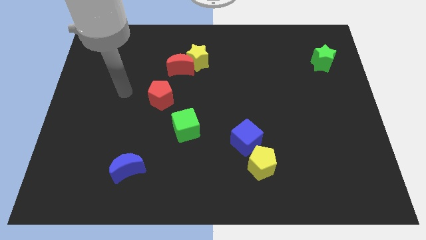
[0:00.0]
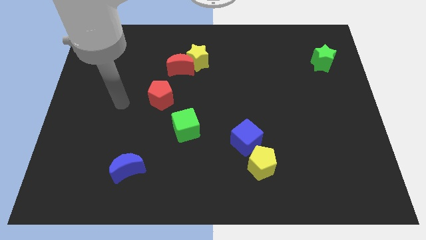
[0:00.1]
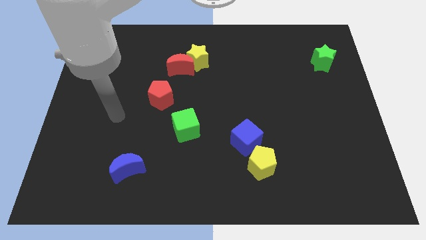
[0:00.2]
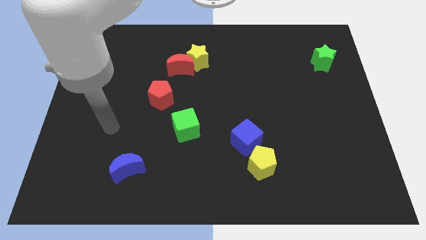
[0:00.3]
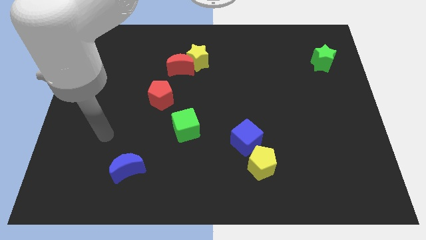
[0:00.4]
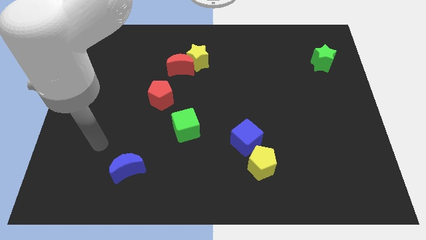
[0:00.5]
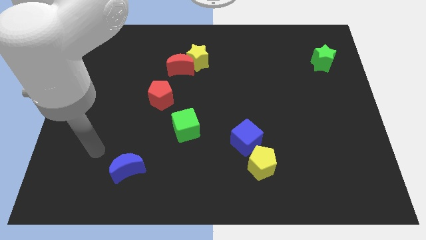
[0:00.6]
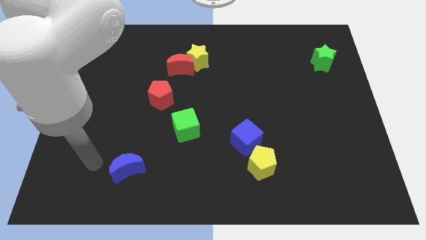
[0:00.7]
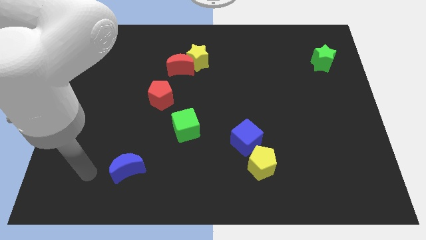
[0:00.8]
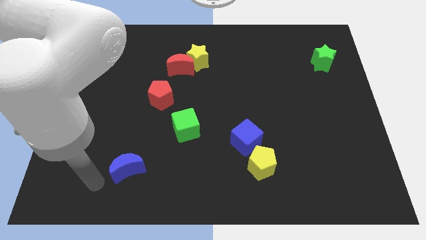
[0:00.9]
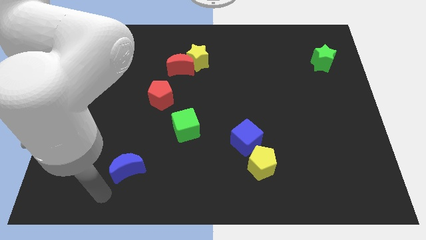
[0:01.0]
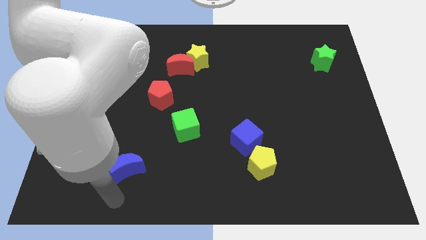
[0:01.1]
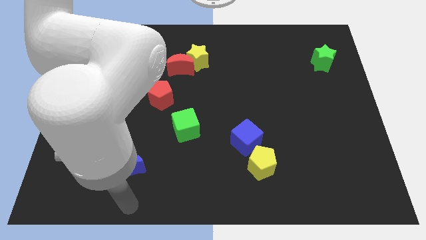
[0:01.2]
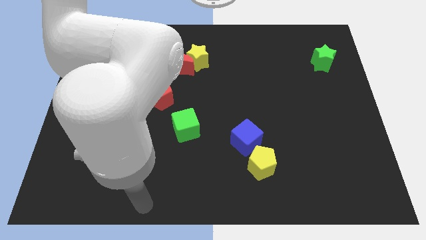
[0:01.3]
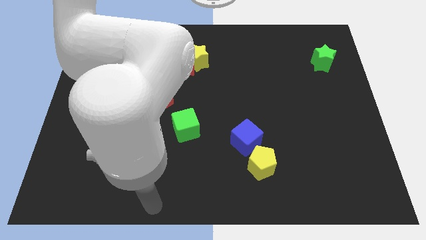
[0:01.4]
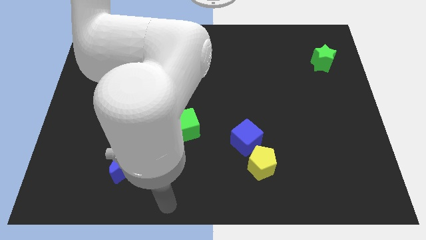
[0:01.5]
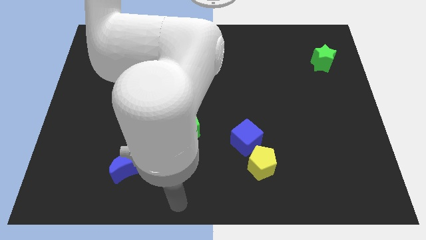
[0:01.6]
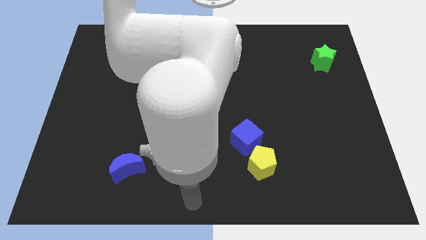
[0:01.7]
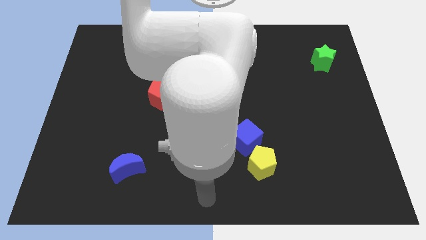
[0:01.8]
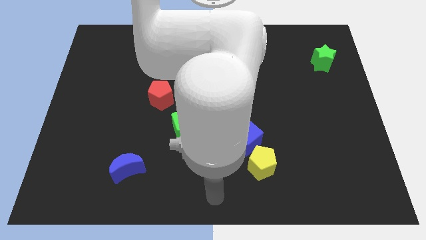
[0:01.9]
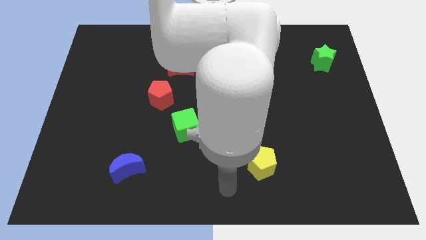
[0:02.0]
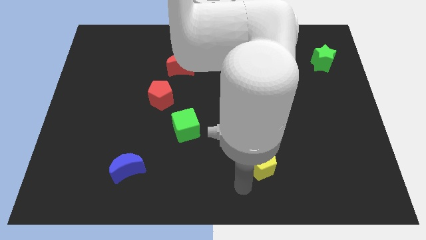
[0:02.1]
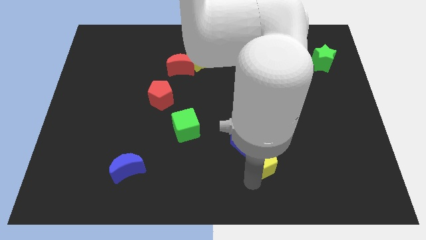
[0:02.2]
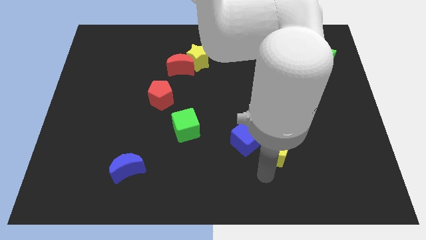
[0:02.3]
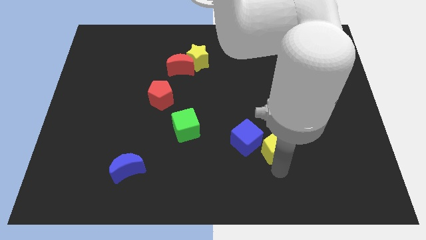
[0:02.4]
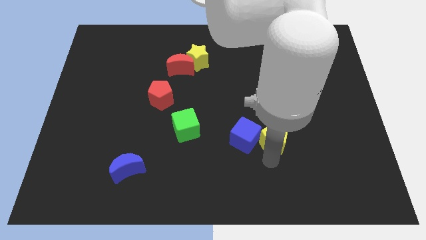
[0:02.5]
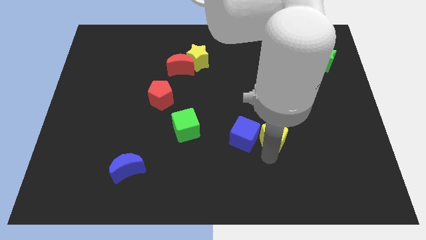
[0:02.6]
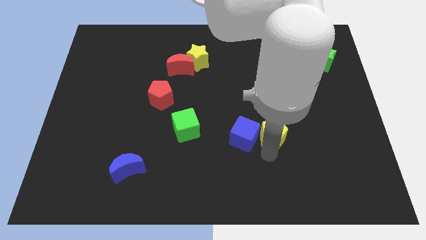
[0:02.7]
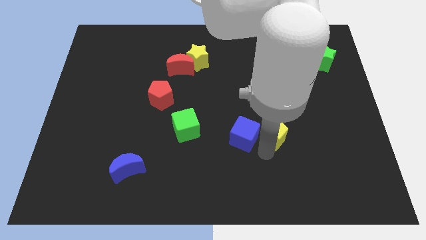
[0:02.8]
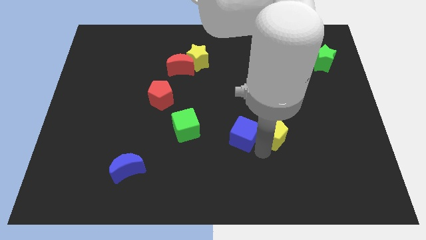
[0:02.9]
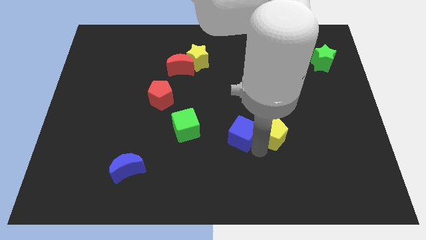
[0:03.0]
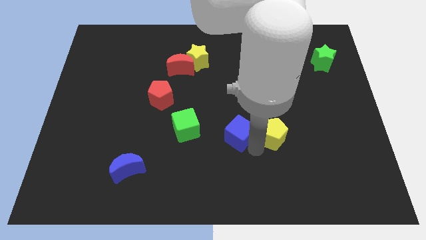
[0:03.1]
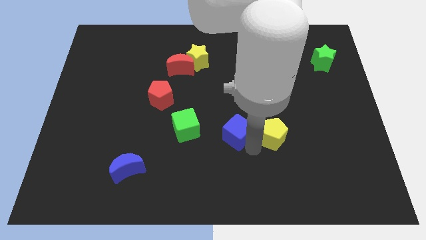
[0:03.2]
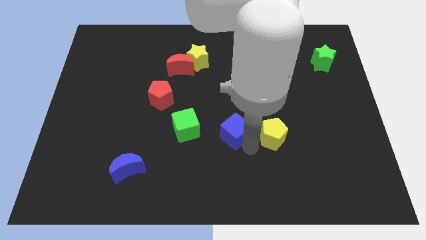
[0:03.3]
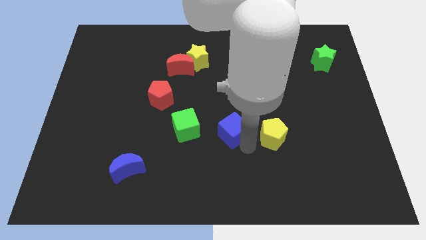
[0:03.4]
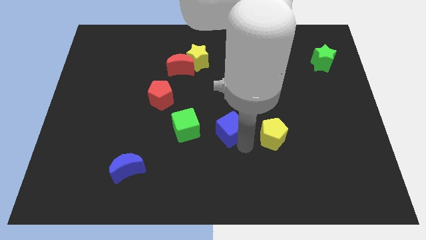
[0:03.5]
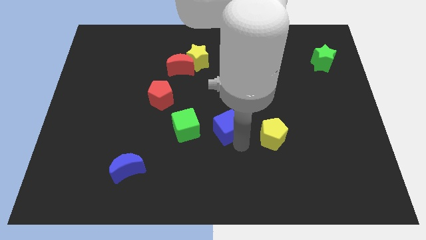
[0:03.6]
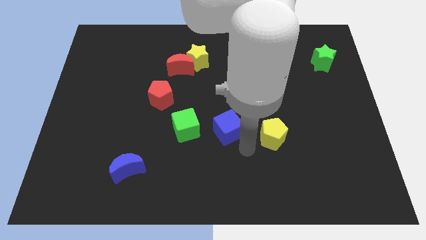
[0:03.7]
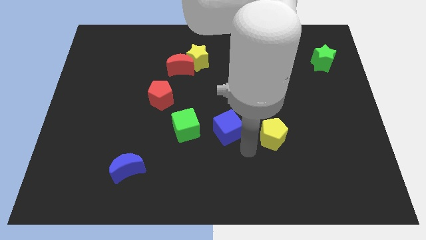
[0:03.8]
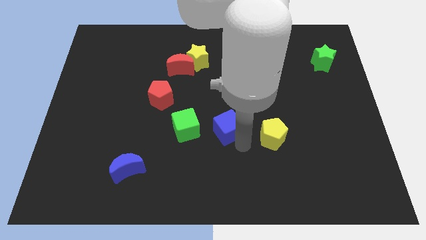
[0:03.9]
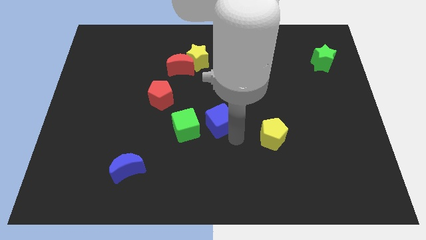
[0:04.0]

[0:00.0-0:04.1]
move the blue cube up and then to the left a little

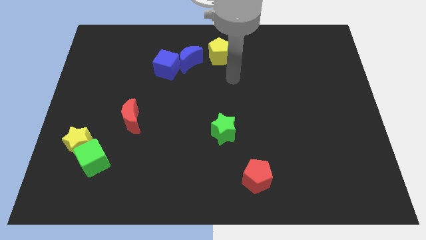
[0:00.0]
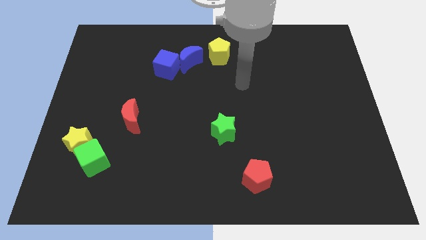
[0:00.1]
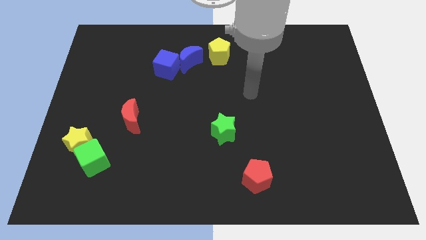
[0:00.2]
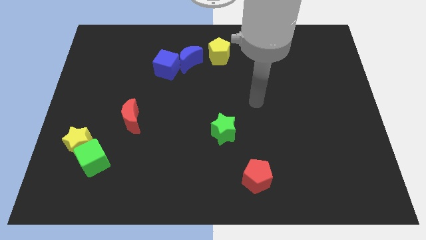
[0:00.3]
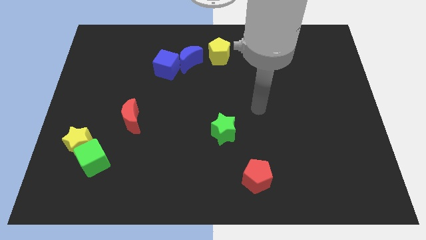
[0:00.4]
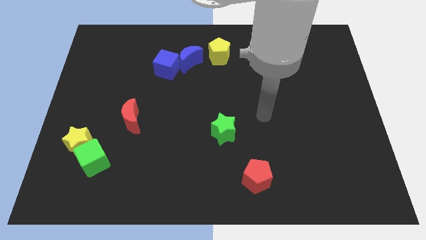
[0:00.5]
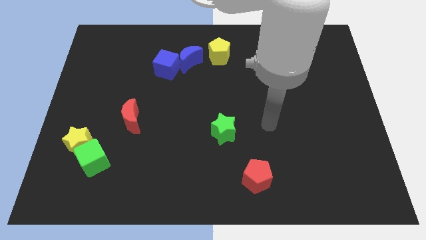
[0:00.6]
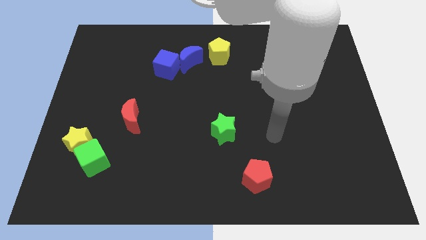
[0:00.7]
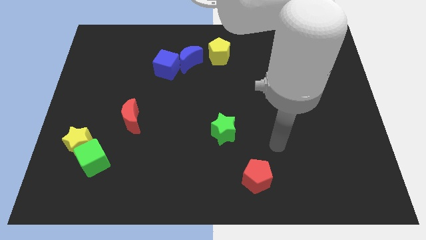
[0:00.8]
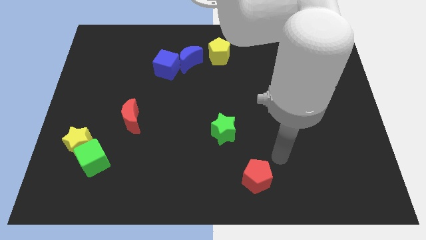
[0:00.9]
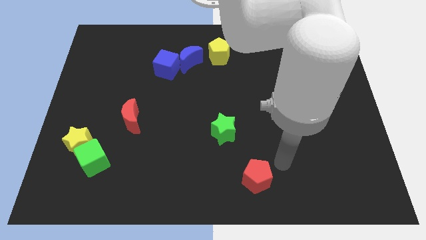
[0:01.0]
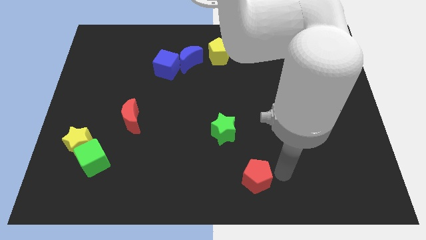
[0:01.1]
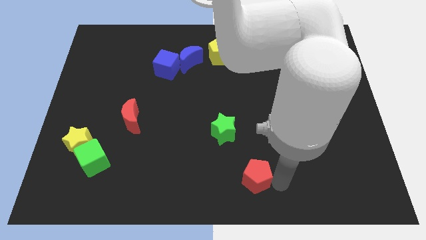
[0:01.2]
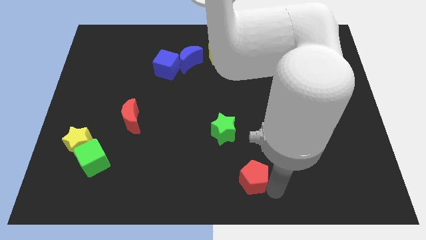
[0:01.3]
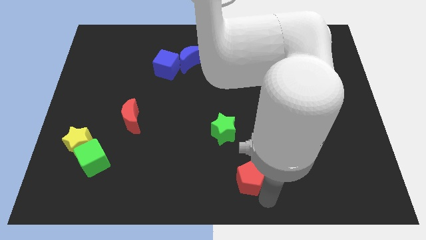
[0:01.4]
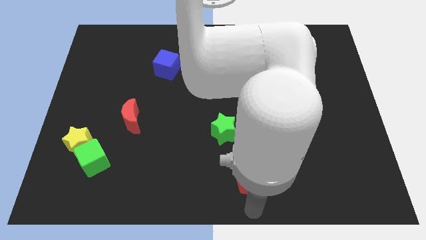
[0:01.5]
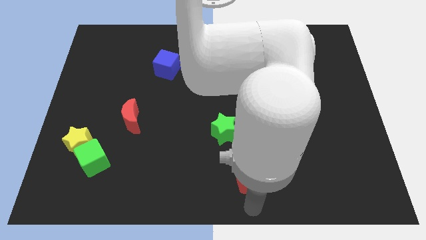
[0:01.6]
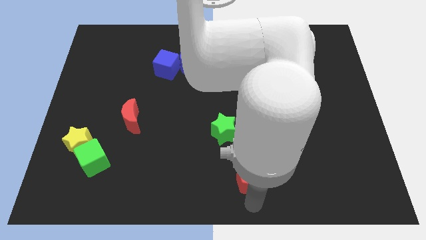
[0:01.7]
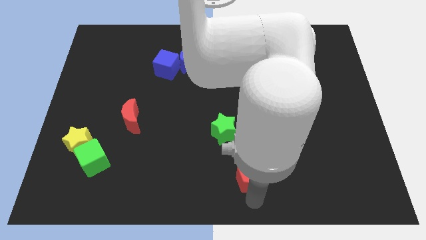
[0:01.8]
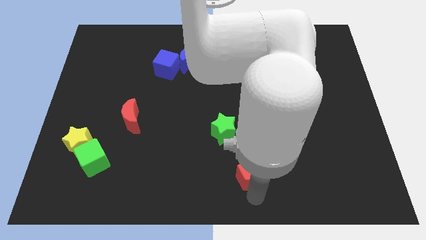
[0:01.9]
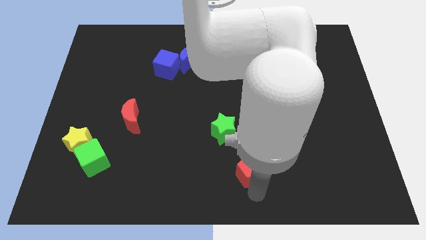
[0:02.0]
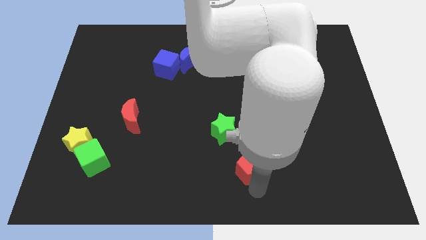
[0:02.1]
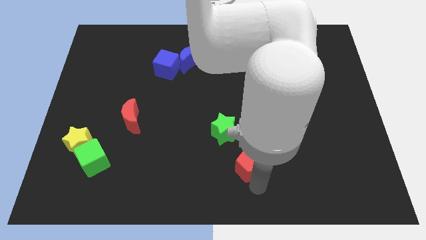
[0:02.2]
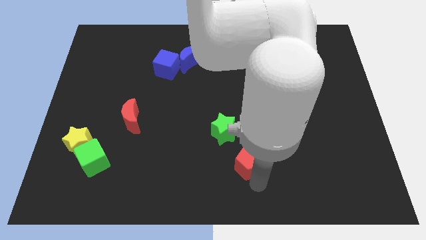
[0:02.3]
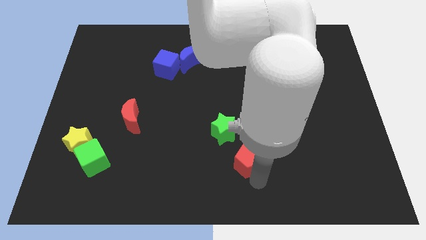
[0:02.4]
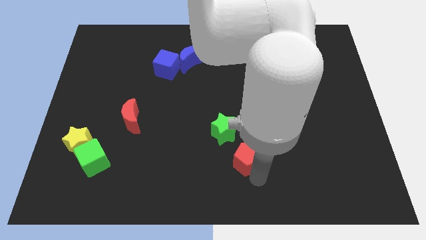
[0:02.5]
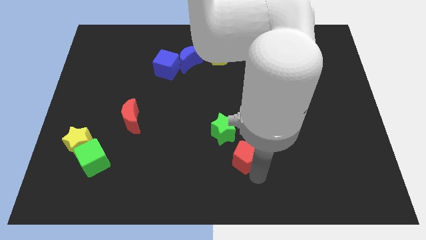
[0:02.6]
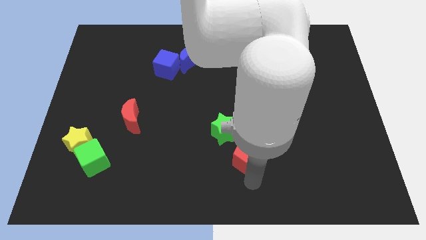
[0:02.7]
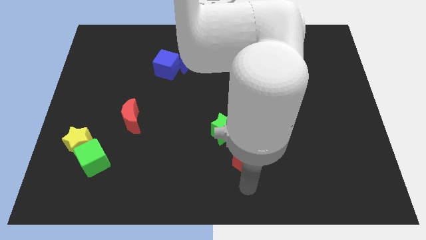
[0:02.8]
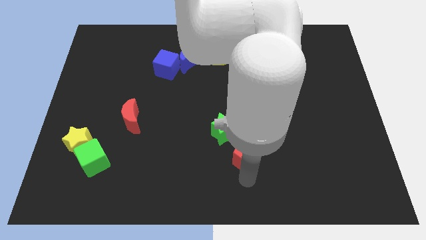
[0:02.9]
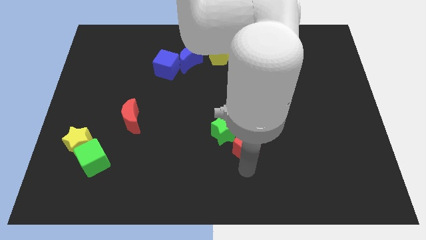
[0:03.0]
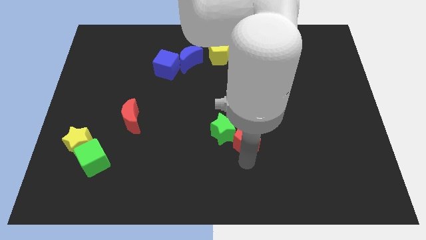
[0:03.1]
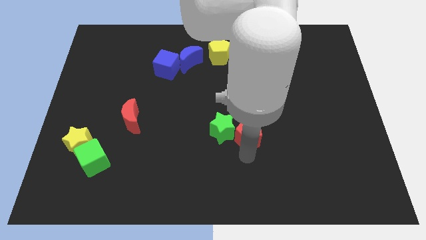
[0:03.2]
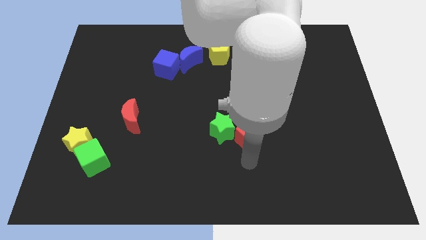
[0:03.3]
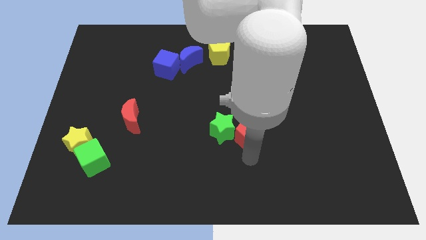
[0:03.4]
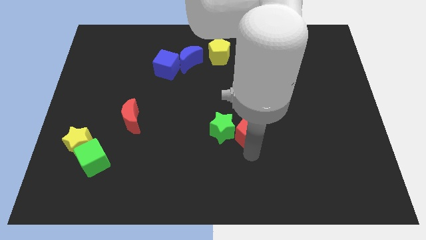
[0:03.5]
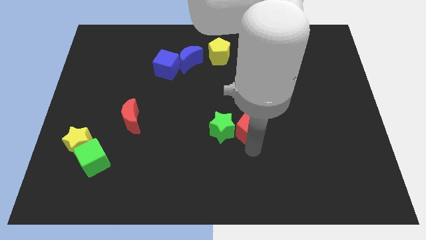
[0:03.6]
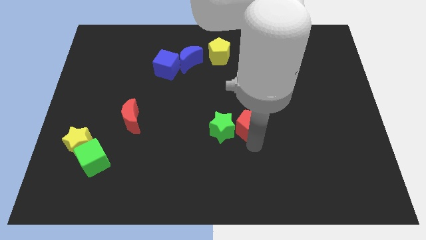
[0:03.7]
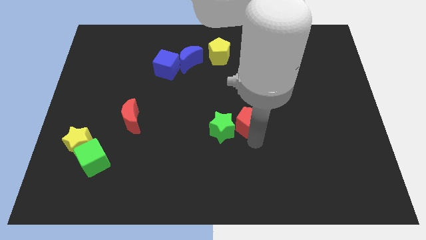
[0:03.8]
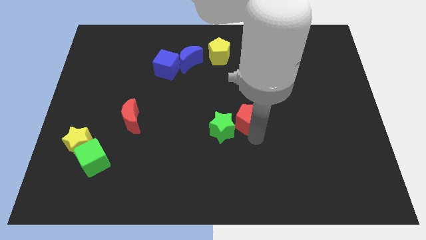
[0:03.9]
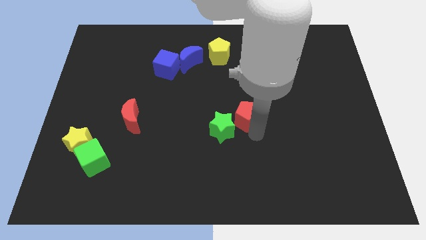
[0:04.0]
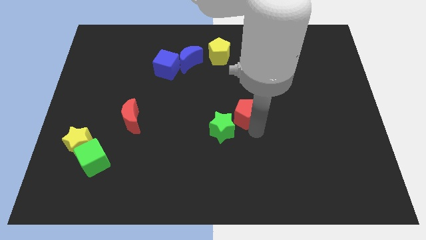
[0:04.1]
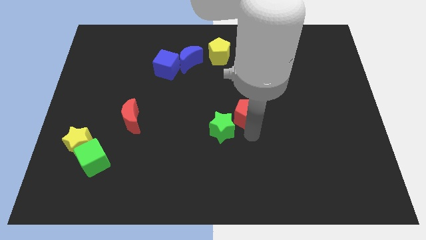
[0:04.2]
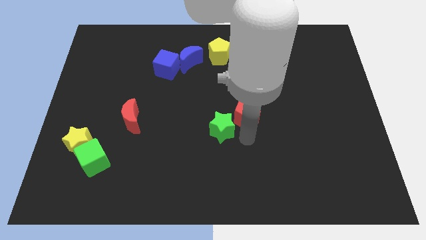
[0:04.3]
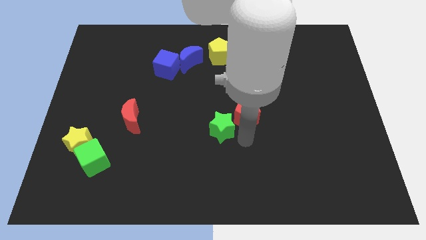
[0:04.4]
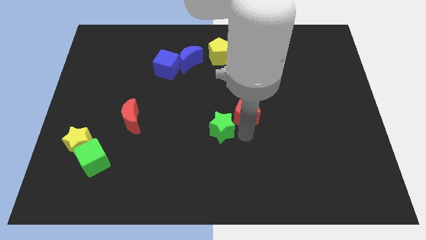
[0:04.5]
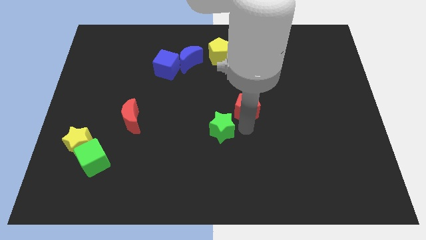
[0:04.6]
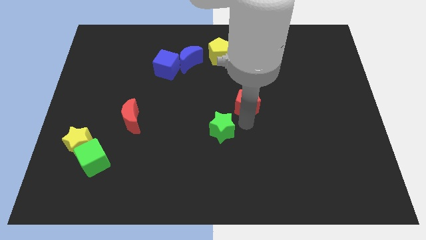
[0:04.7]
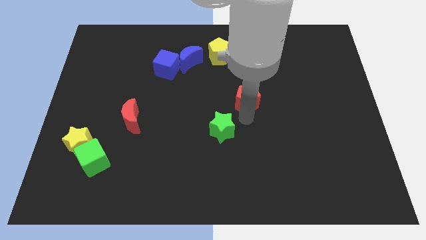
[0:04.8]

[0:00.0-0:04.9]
push the red pentagon up
